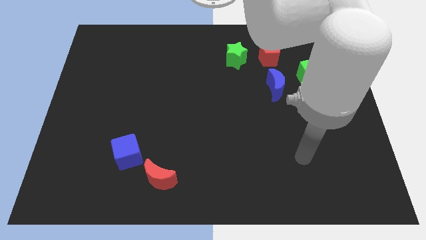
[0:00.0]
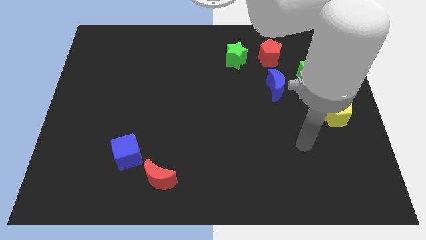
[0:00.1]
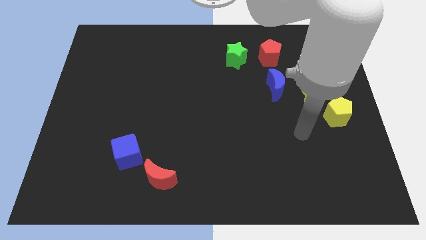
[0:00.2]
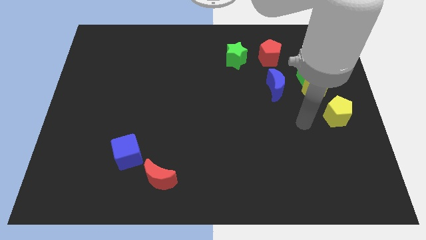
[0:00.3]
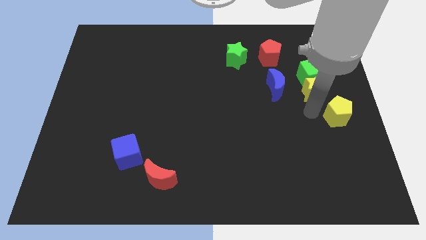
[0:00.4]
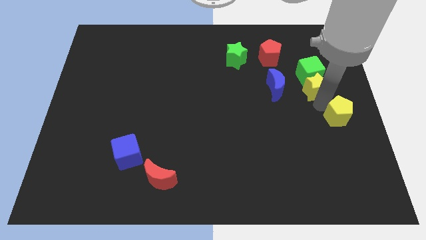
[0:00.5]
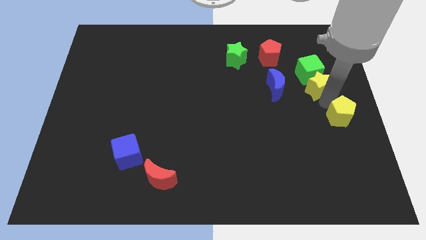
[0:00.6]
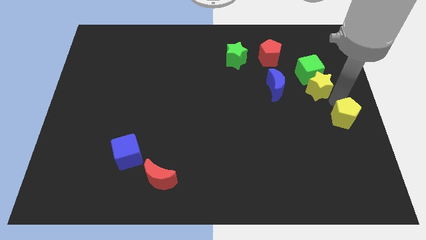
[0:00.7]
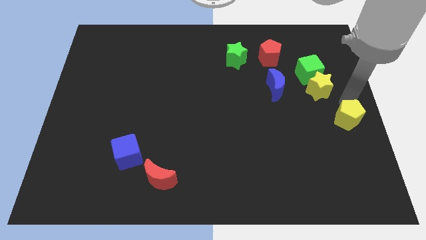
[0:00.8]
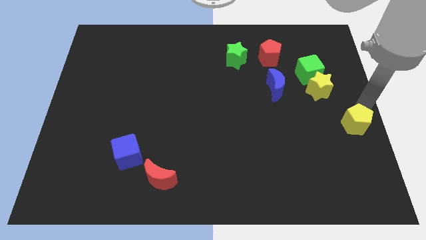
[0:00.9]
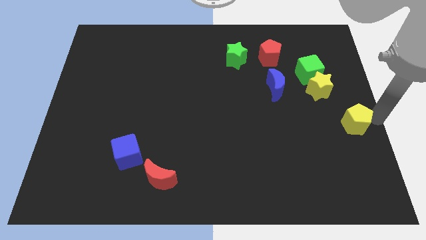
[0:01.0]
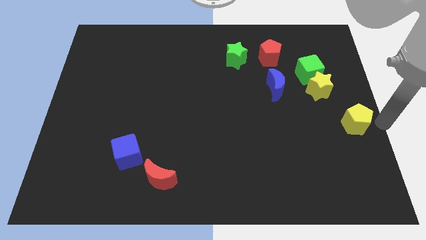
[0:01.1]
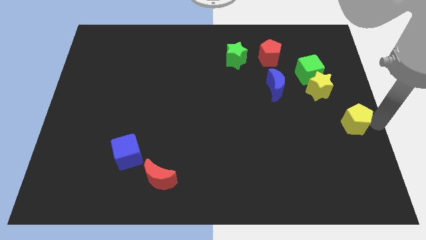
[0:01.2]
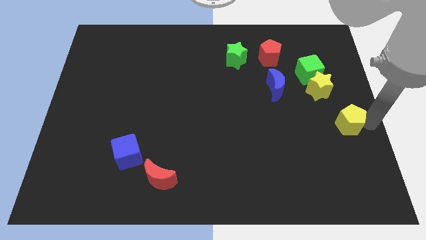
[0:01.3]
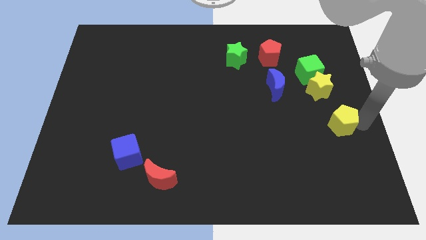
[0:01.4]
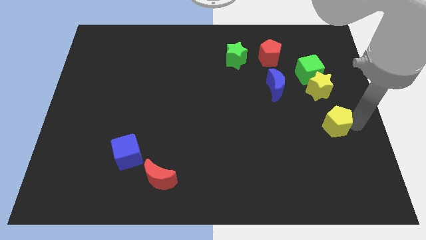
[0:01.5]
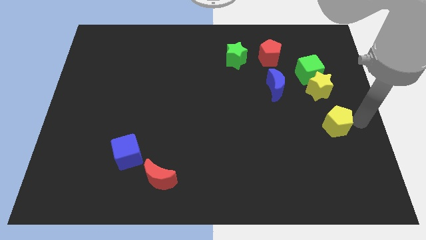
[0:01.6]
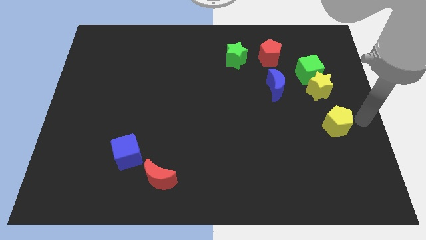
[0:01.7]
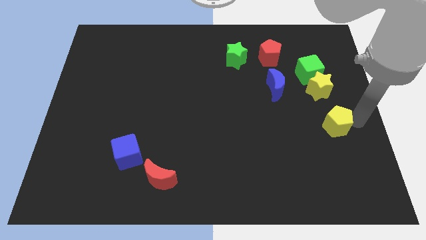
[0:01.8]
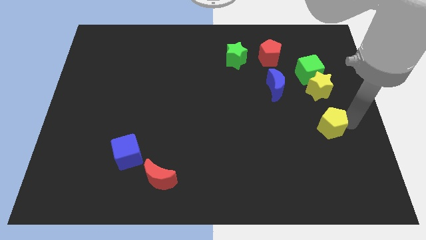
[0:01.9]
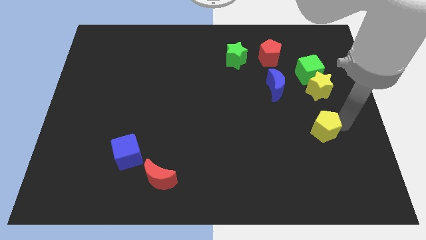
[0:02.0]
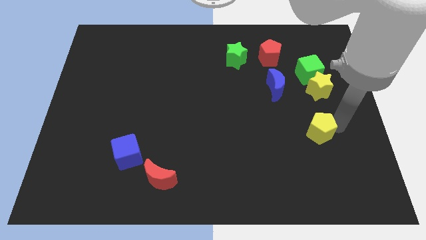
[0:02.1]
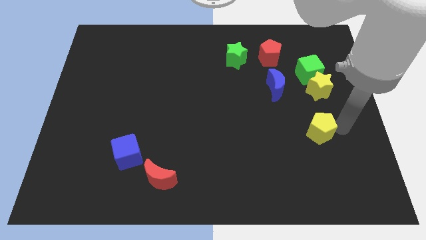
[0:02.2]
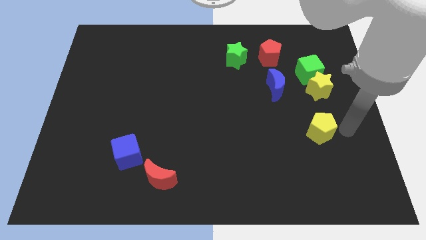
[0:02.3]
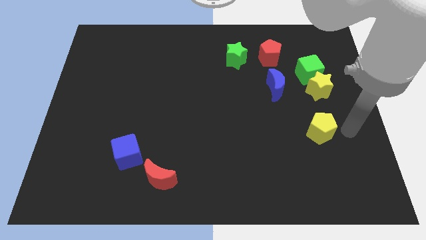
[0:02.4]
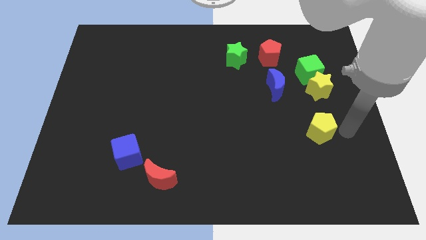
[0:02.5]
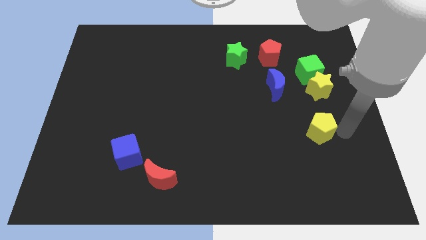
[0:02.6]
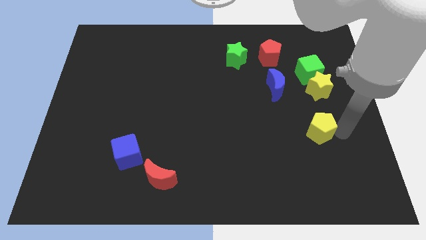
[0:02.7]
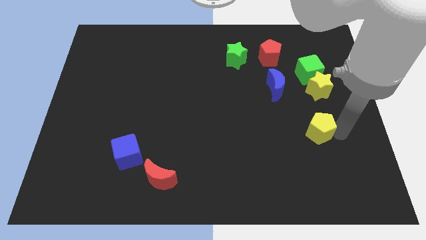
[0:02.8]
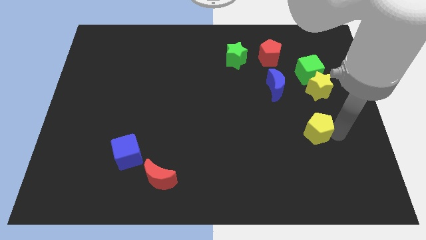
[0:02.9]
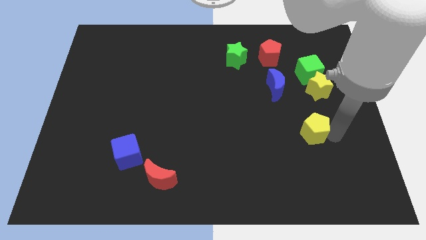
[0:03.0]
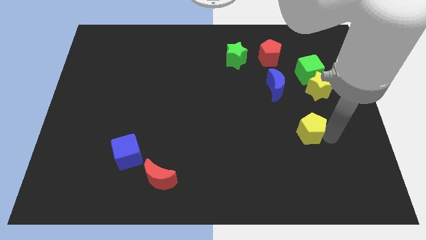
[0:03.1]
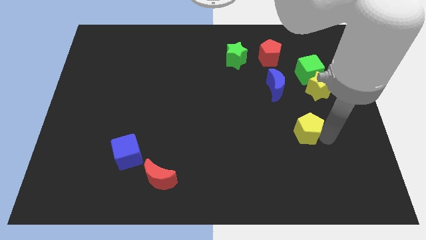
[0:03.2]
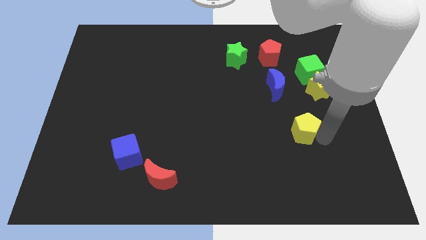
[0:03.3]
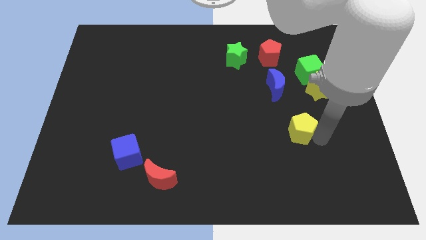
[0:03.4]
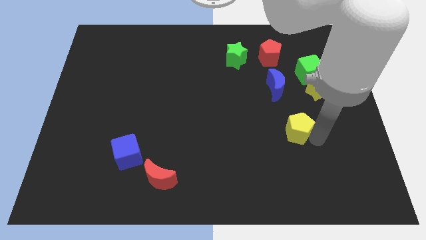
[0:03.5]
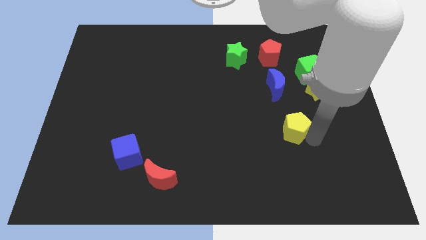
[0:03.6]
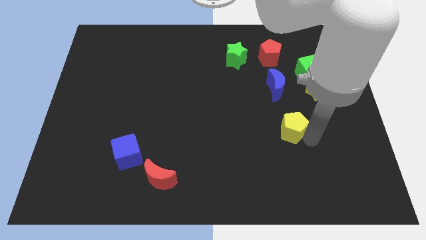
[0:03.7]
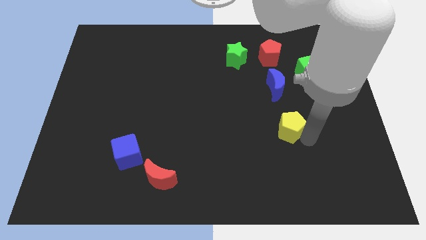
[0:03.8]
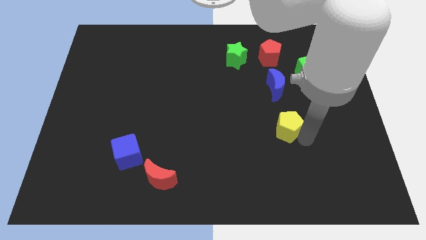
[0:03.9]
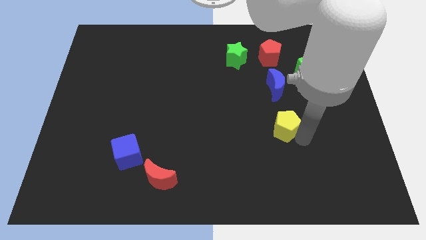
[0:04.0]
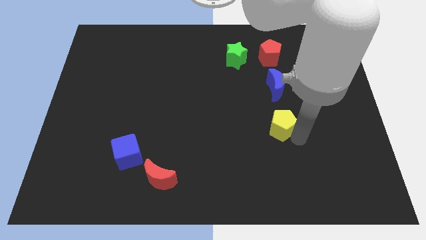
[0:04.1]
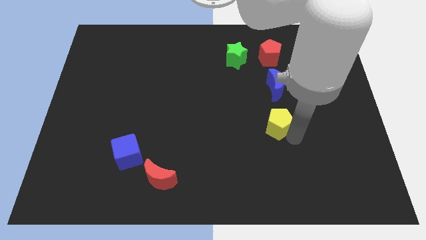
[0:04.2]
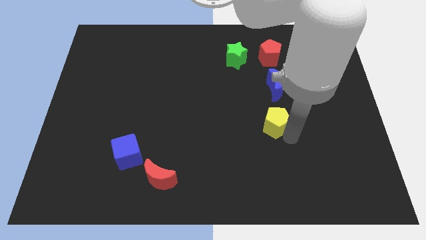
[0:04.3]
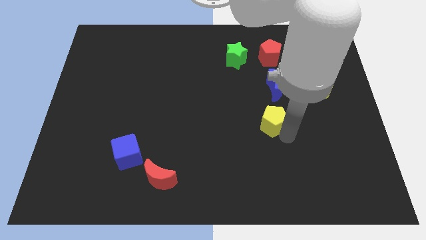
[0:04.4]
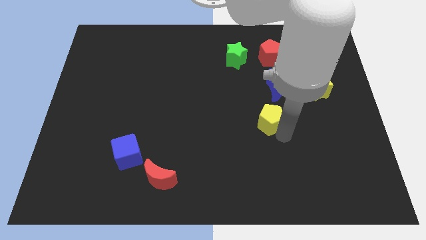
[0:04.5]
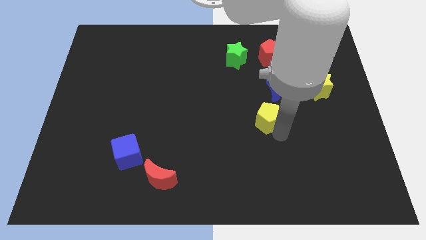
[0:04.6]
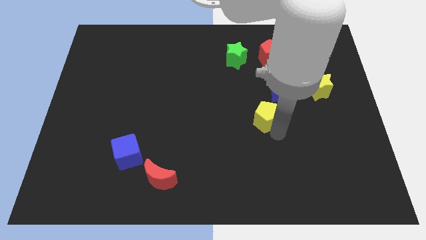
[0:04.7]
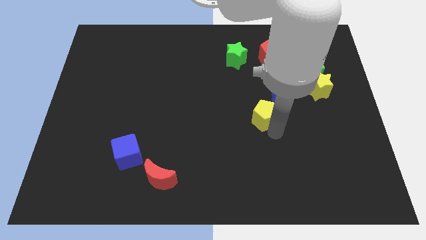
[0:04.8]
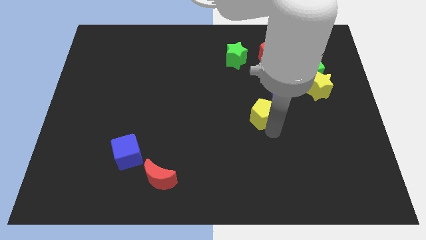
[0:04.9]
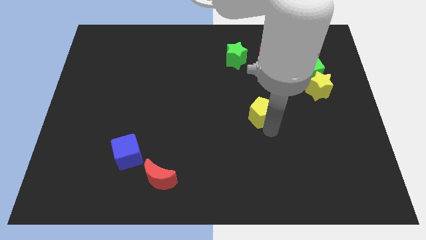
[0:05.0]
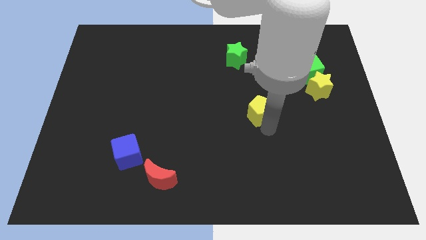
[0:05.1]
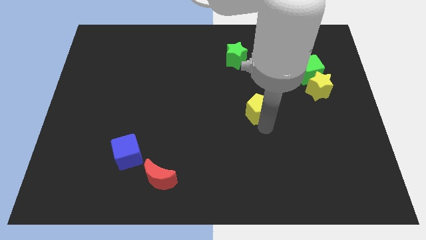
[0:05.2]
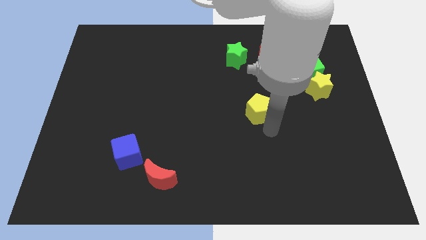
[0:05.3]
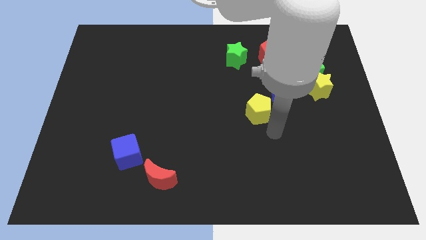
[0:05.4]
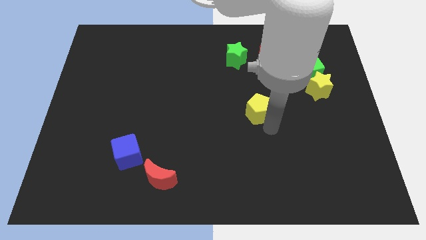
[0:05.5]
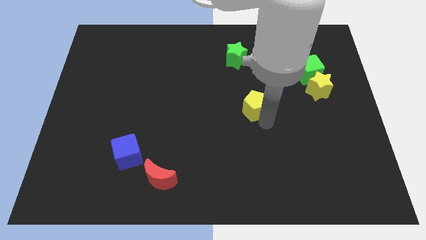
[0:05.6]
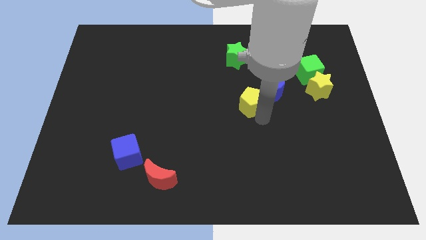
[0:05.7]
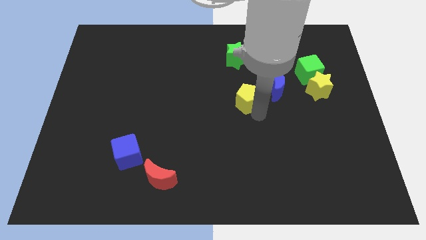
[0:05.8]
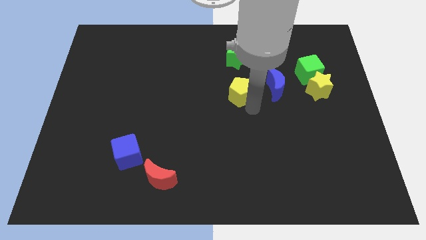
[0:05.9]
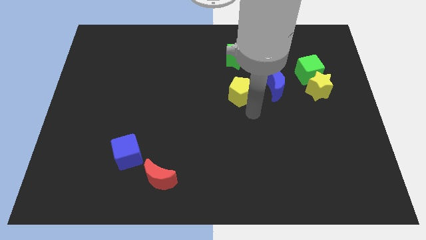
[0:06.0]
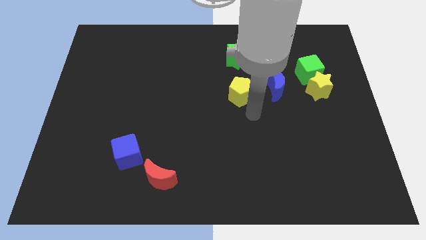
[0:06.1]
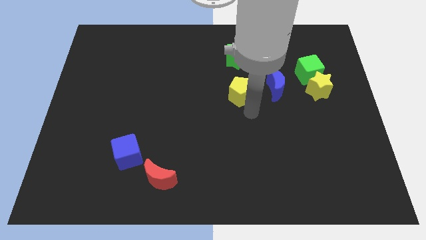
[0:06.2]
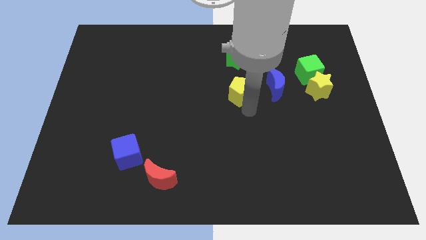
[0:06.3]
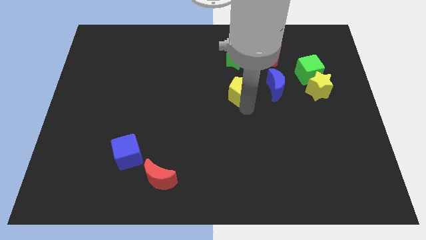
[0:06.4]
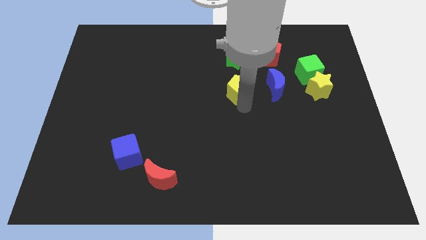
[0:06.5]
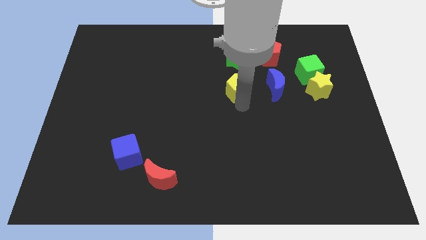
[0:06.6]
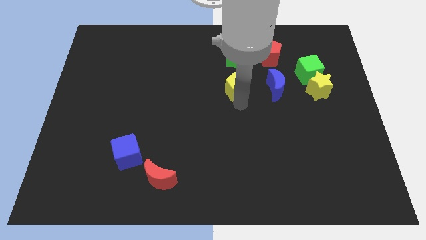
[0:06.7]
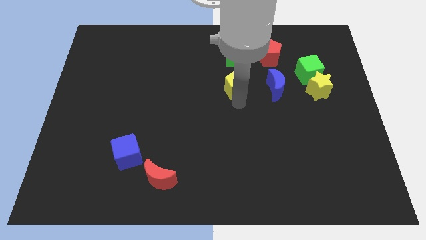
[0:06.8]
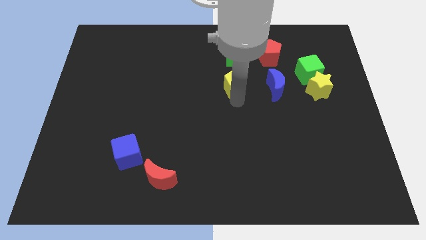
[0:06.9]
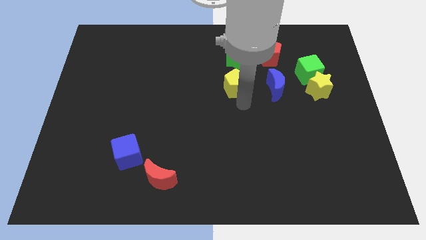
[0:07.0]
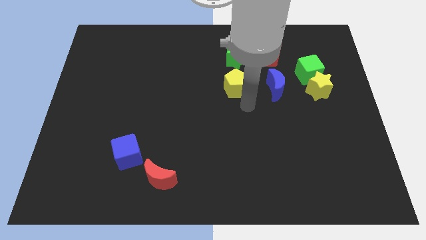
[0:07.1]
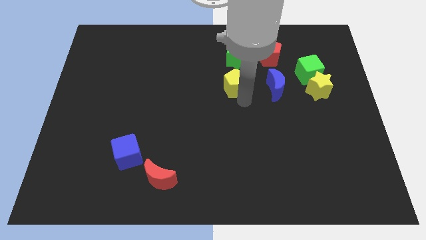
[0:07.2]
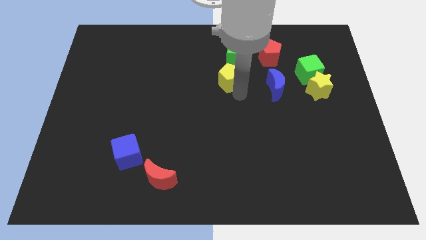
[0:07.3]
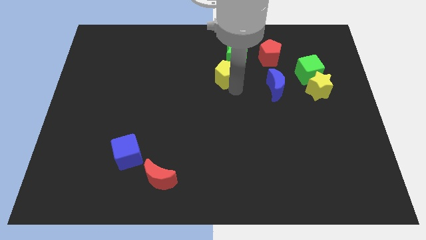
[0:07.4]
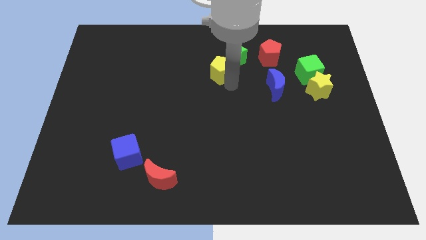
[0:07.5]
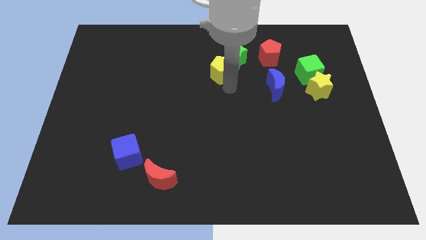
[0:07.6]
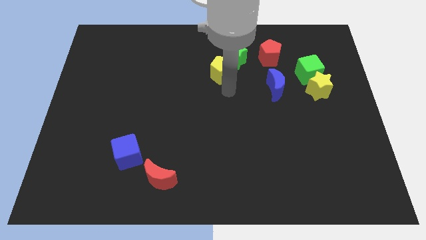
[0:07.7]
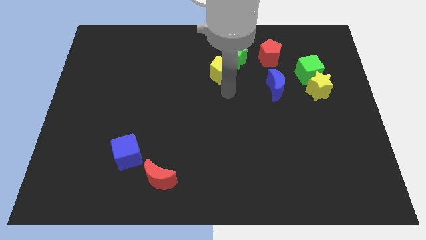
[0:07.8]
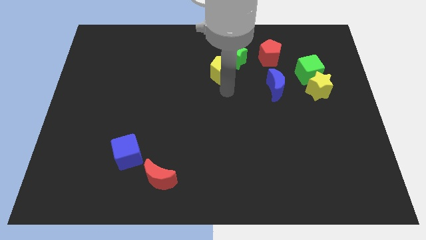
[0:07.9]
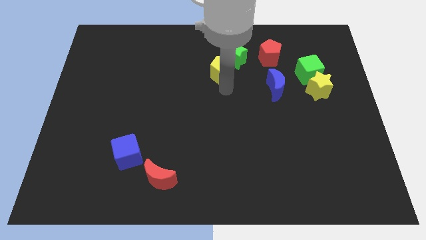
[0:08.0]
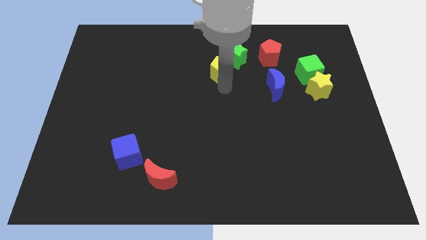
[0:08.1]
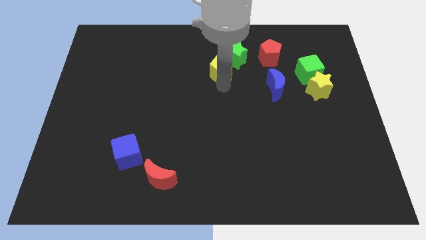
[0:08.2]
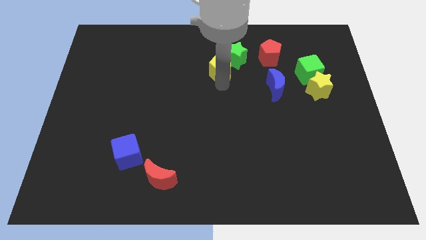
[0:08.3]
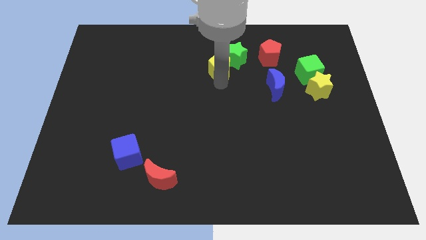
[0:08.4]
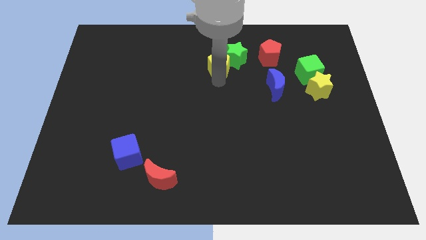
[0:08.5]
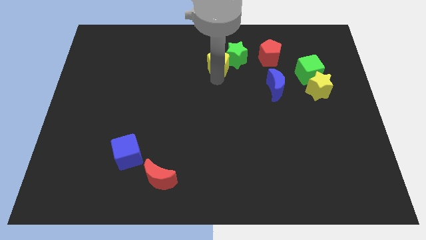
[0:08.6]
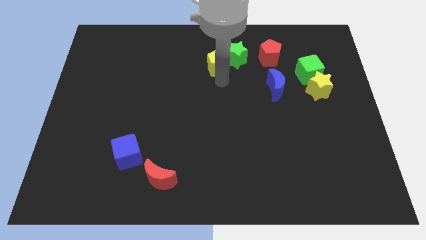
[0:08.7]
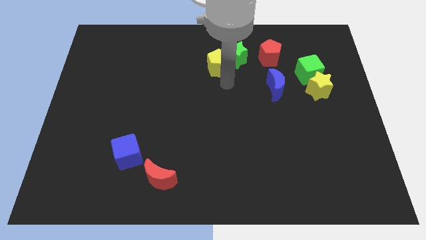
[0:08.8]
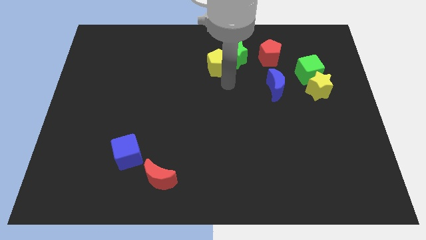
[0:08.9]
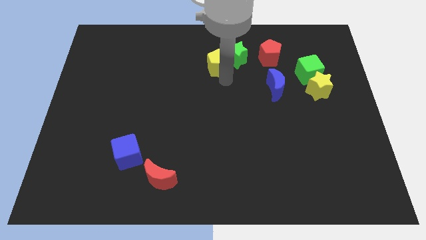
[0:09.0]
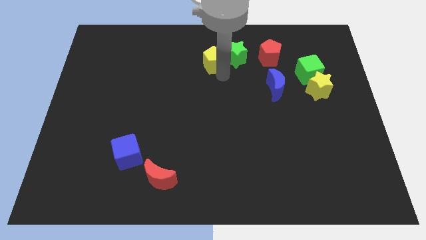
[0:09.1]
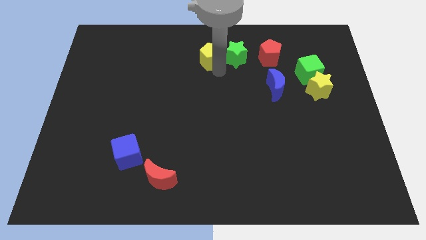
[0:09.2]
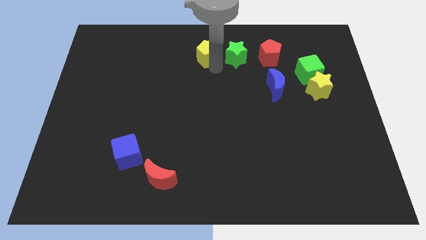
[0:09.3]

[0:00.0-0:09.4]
move the yellow pentagon to the towards your base
